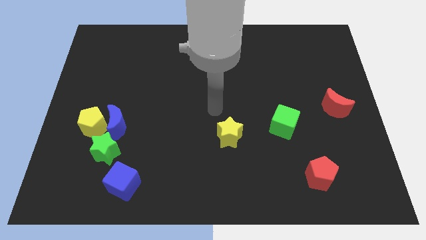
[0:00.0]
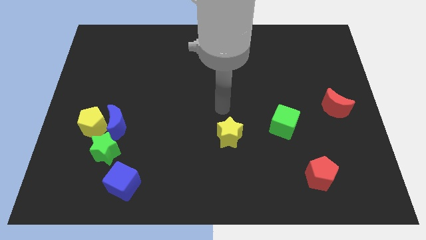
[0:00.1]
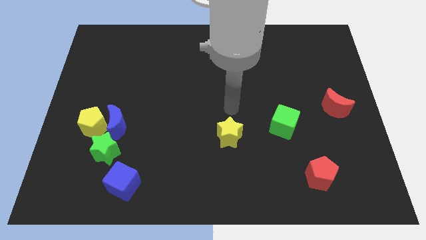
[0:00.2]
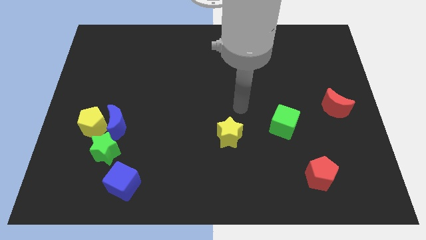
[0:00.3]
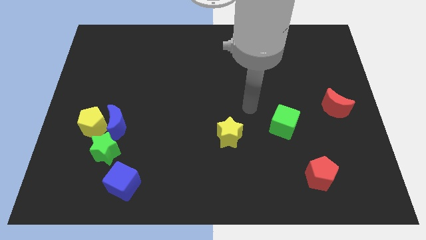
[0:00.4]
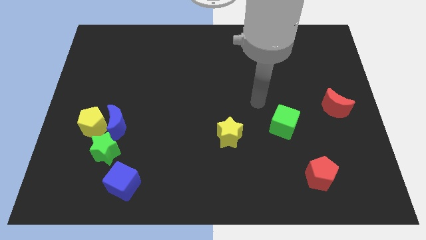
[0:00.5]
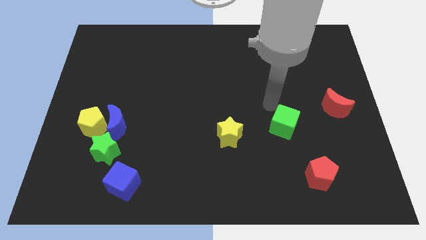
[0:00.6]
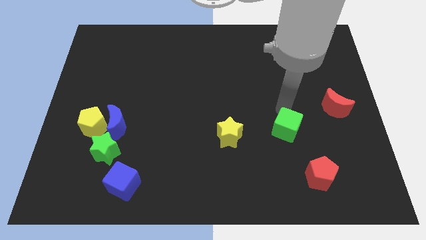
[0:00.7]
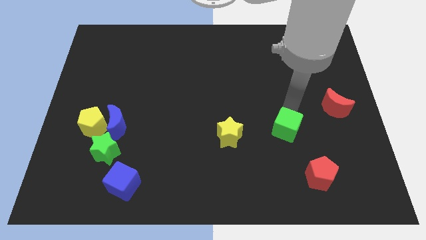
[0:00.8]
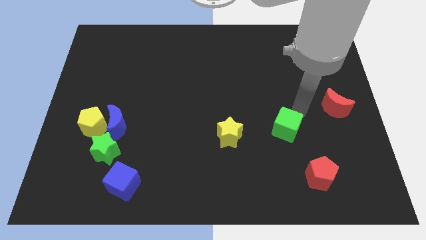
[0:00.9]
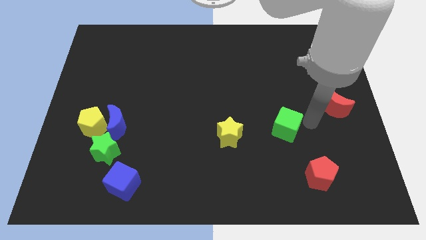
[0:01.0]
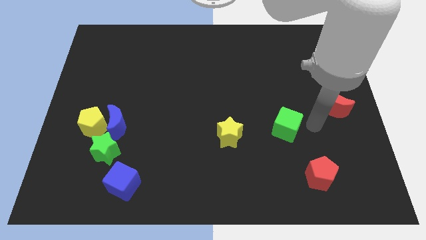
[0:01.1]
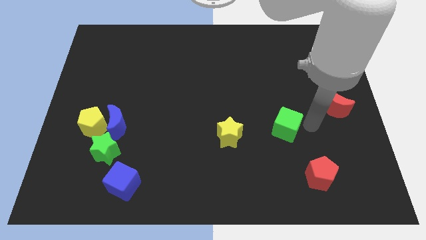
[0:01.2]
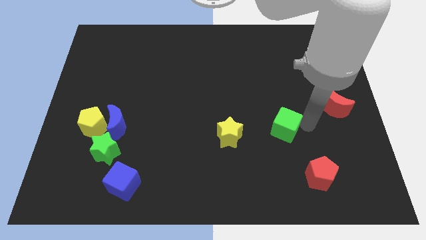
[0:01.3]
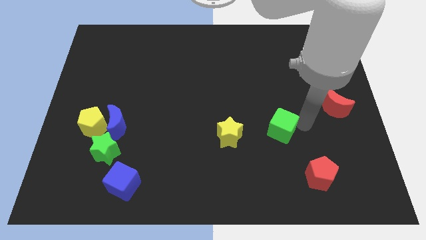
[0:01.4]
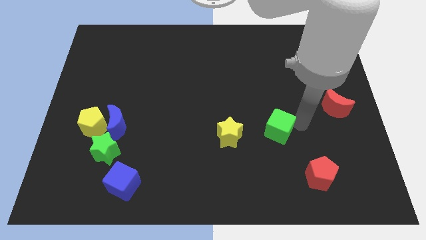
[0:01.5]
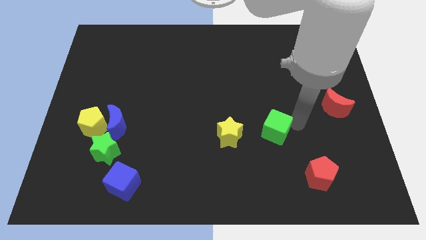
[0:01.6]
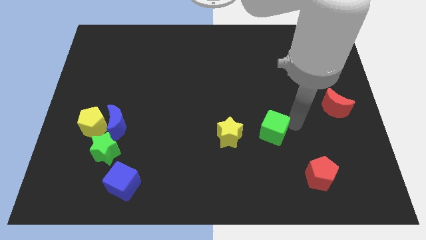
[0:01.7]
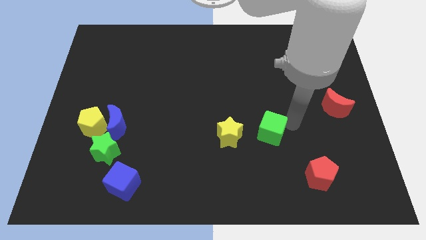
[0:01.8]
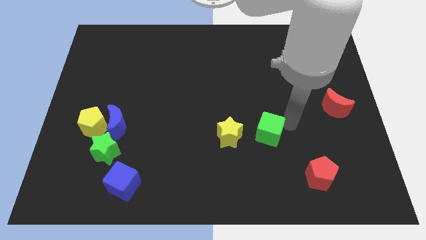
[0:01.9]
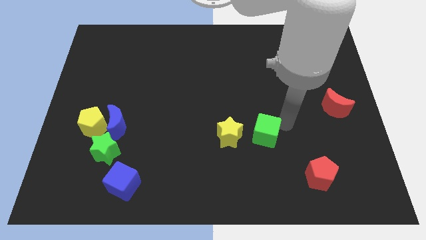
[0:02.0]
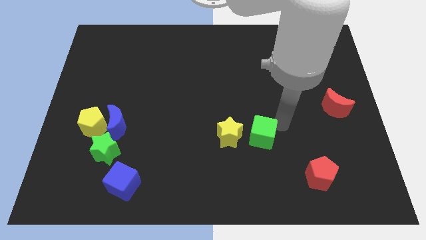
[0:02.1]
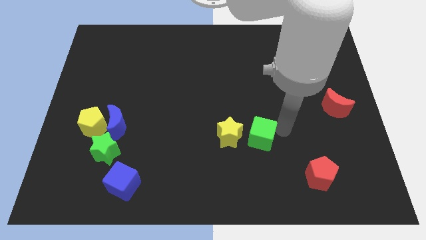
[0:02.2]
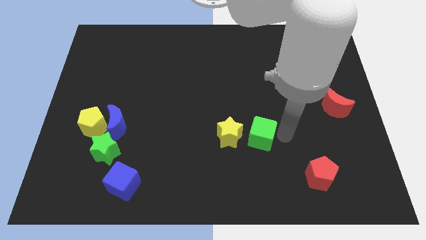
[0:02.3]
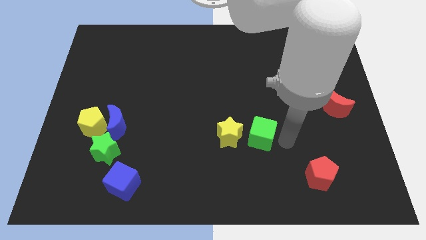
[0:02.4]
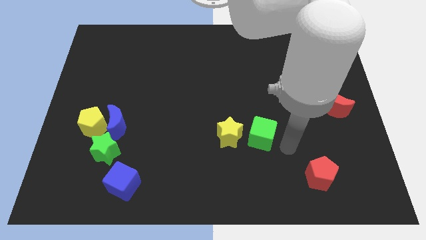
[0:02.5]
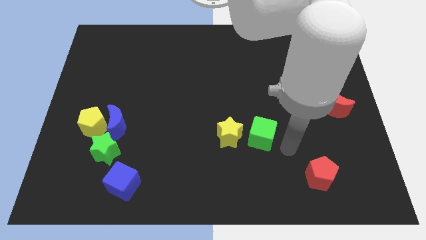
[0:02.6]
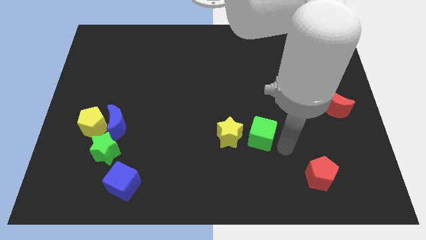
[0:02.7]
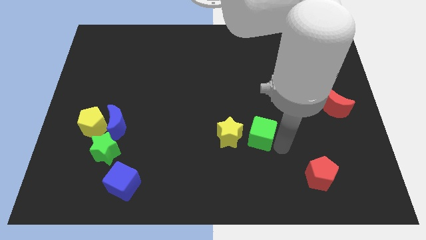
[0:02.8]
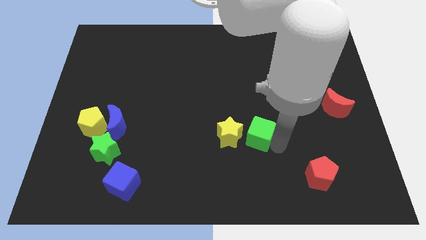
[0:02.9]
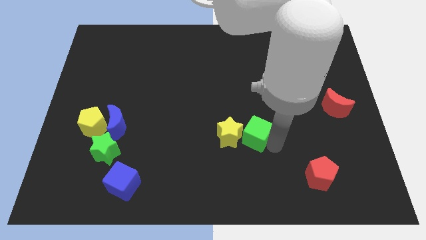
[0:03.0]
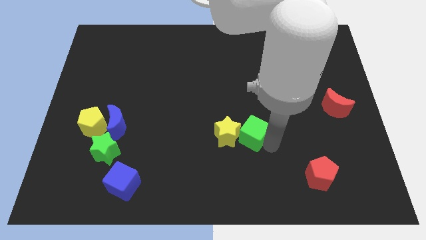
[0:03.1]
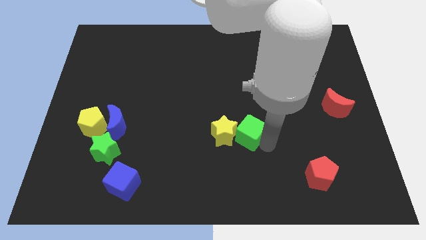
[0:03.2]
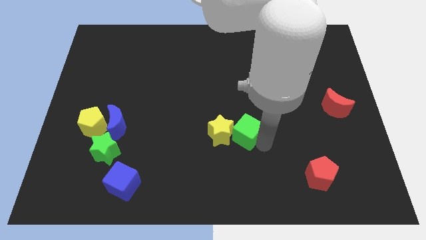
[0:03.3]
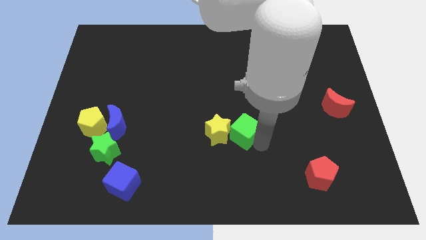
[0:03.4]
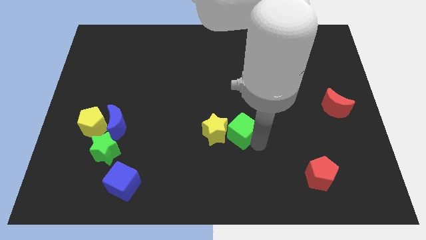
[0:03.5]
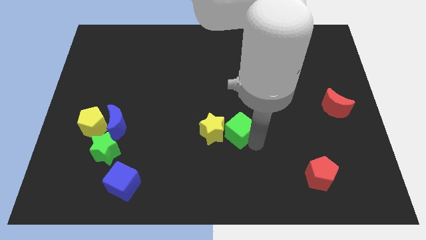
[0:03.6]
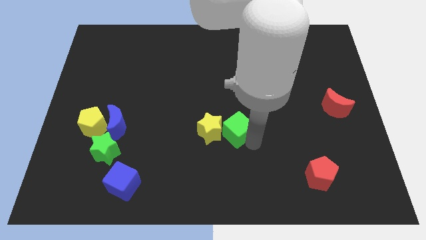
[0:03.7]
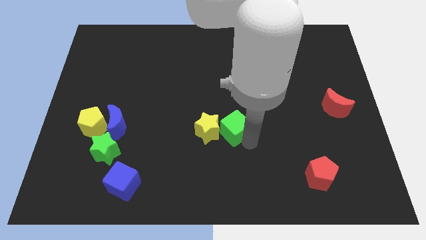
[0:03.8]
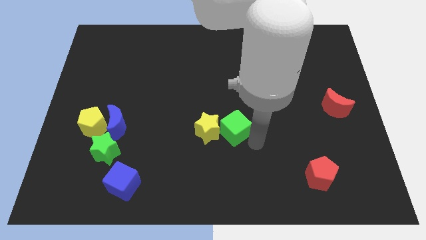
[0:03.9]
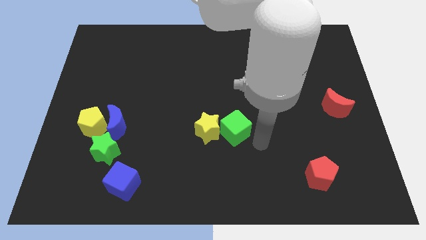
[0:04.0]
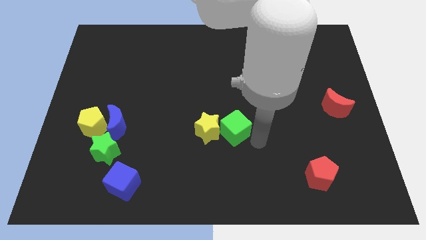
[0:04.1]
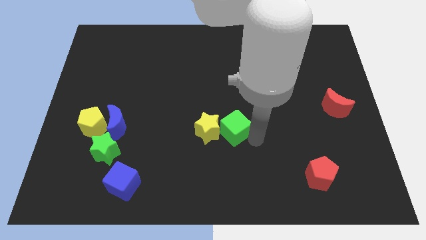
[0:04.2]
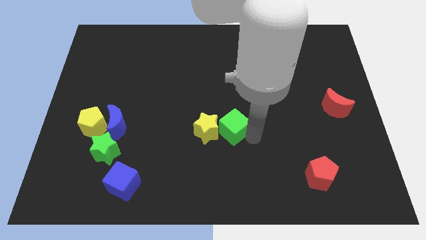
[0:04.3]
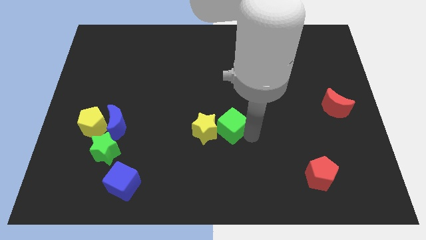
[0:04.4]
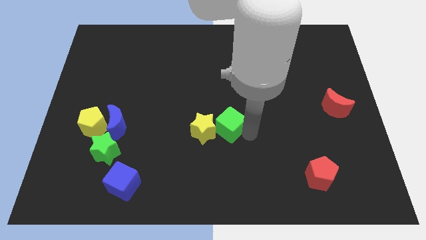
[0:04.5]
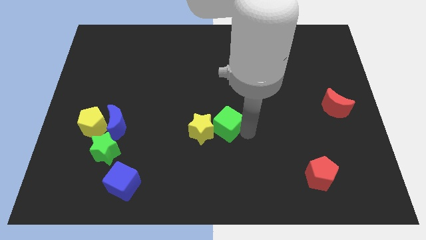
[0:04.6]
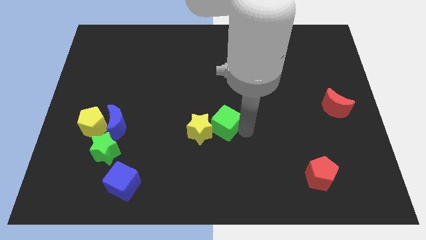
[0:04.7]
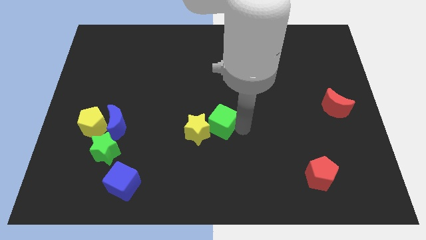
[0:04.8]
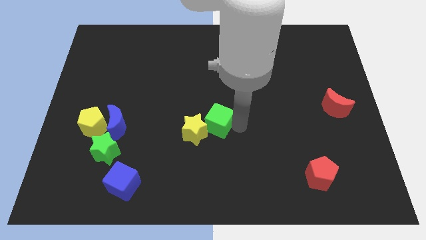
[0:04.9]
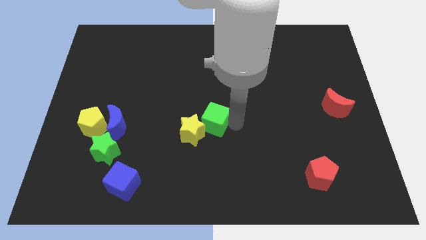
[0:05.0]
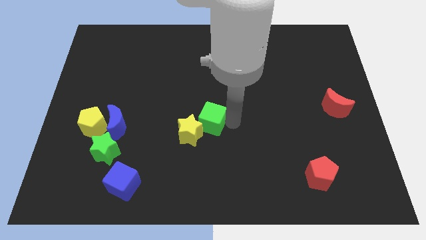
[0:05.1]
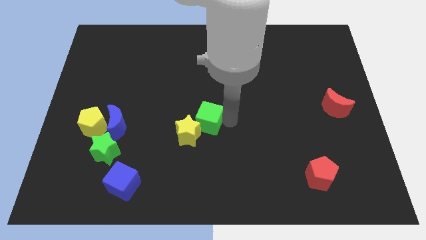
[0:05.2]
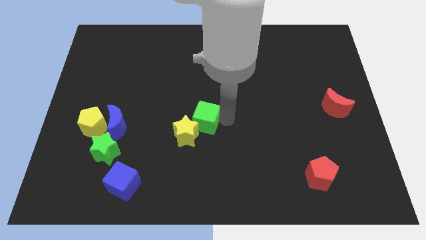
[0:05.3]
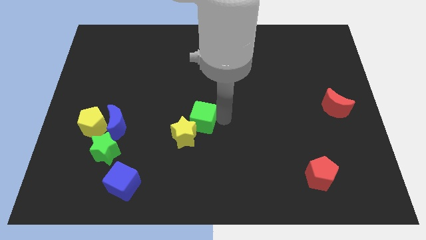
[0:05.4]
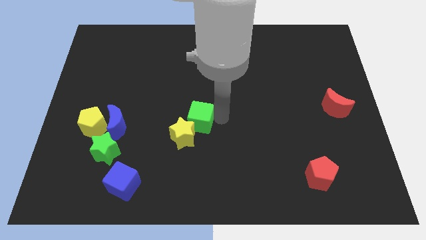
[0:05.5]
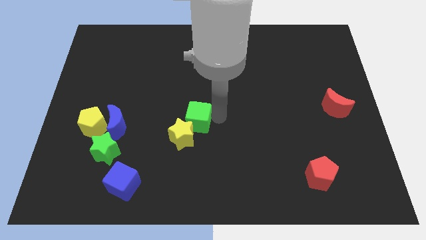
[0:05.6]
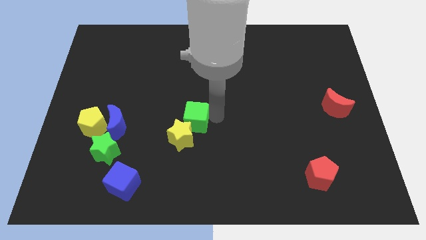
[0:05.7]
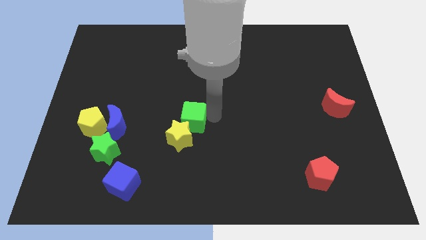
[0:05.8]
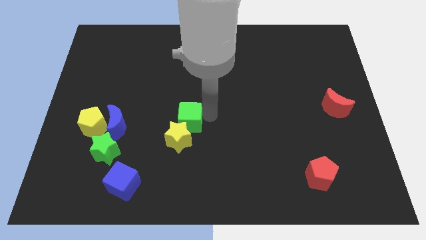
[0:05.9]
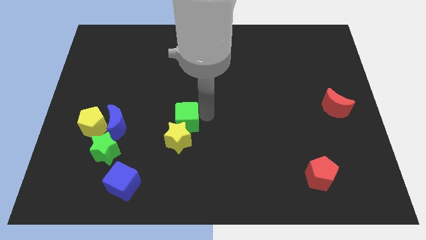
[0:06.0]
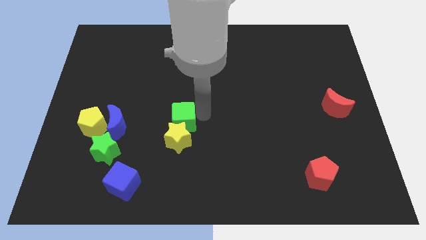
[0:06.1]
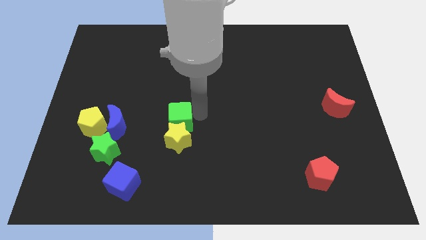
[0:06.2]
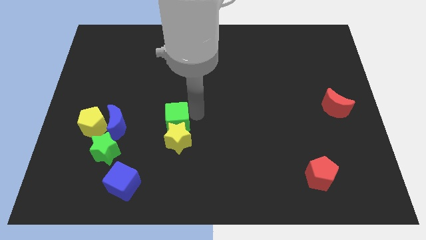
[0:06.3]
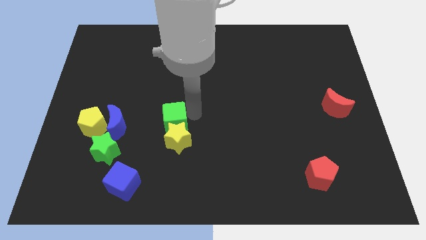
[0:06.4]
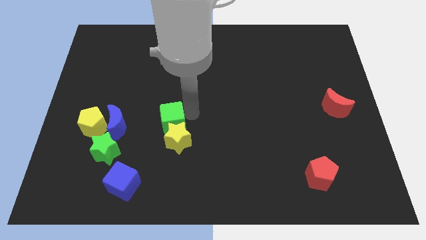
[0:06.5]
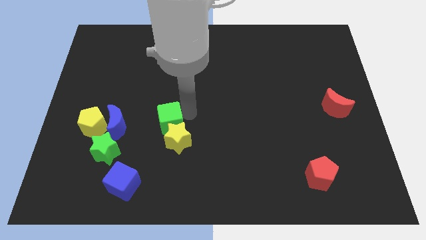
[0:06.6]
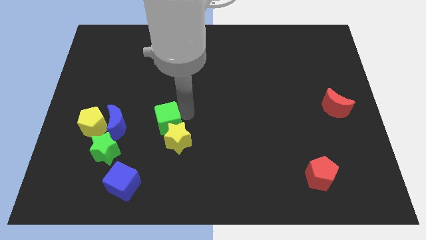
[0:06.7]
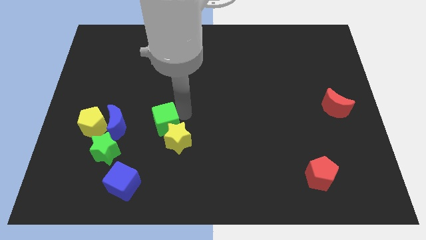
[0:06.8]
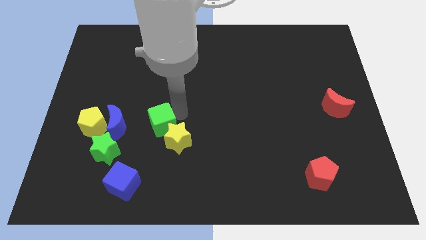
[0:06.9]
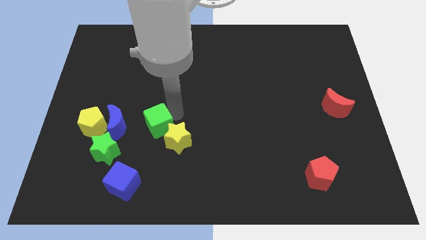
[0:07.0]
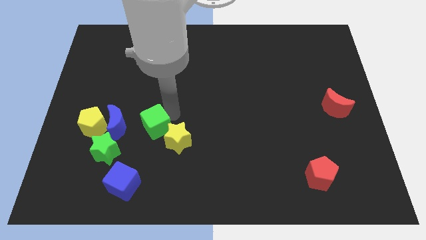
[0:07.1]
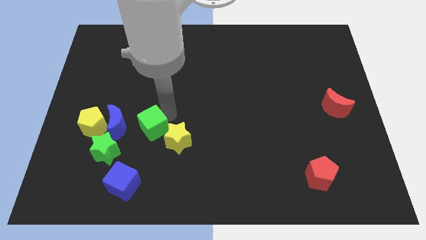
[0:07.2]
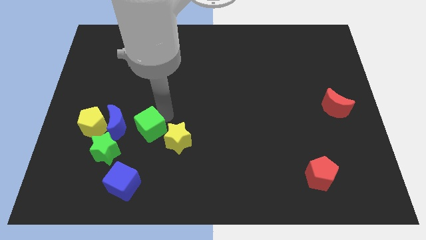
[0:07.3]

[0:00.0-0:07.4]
put the green cube to the top side of the blue cube

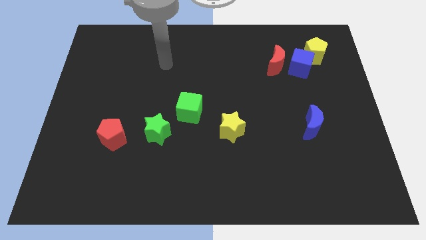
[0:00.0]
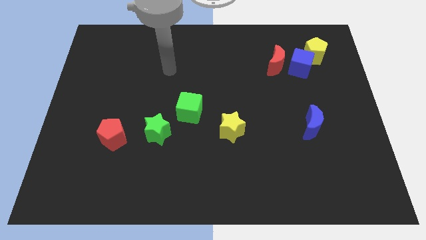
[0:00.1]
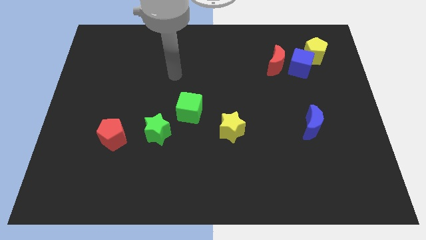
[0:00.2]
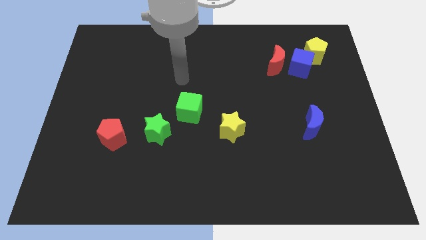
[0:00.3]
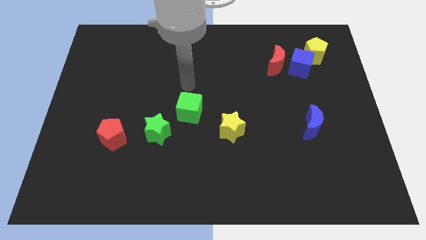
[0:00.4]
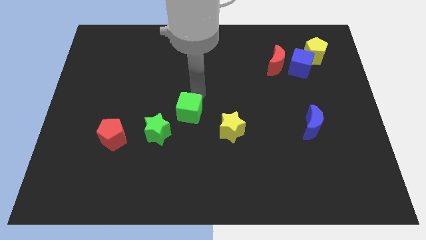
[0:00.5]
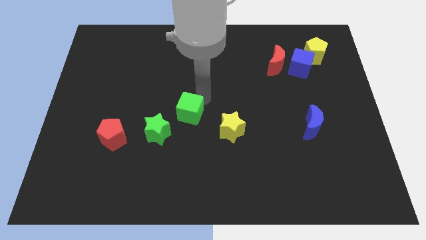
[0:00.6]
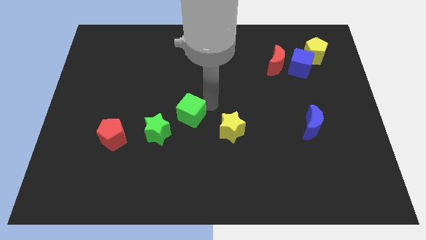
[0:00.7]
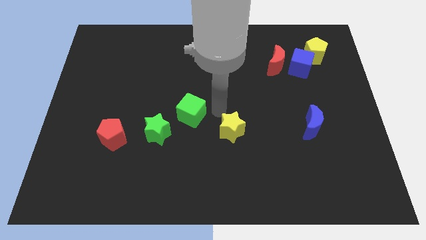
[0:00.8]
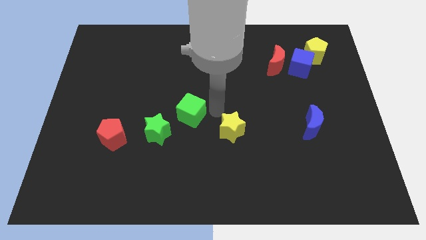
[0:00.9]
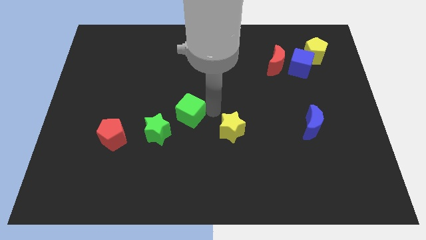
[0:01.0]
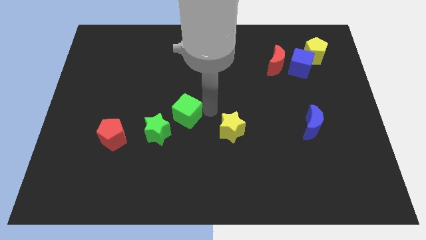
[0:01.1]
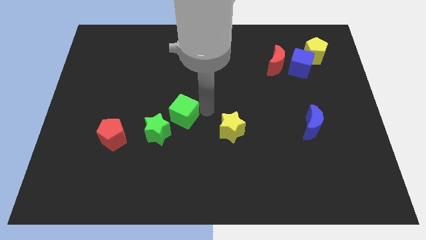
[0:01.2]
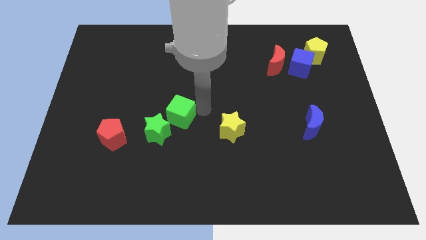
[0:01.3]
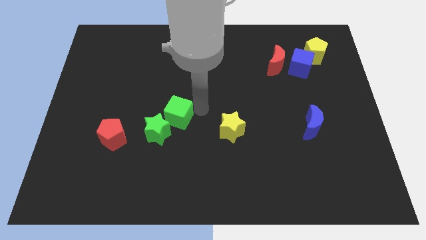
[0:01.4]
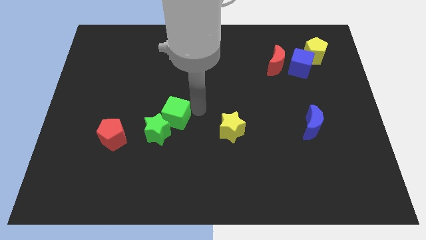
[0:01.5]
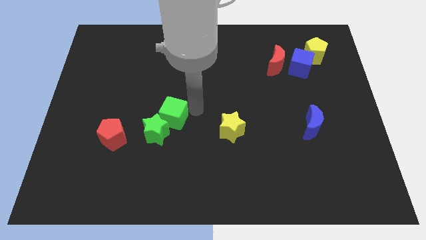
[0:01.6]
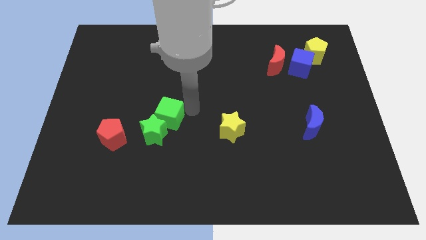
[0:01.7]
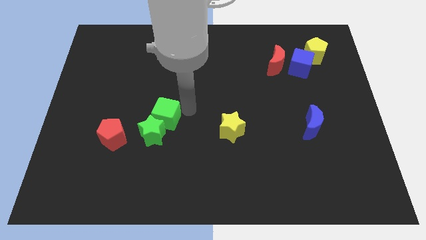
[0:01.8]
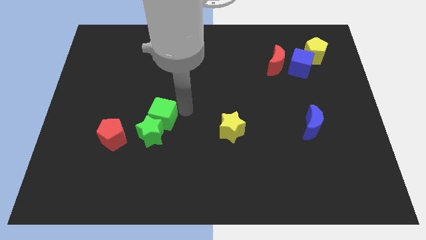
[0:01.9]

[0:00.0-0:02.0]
push the green cube to the top right of the red pentagon
